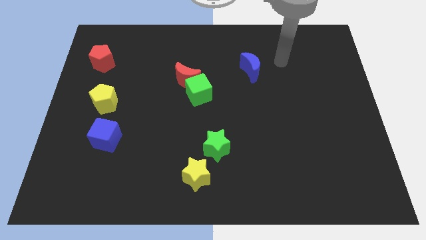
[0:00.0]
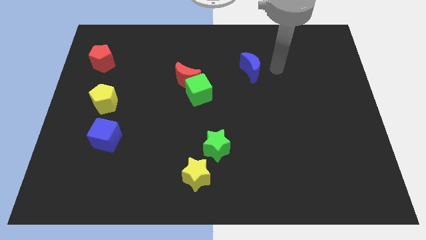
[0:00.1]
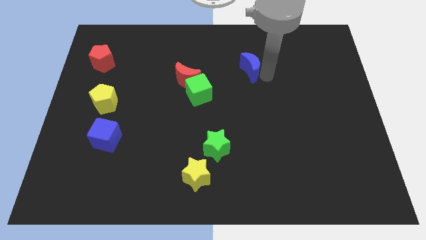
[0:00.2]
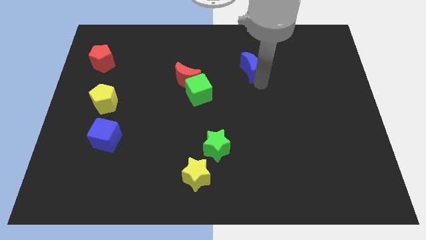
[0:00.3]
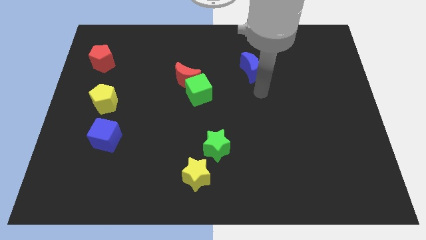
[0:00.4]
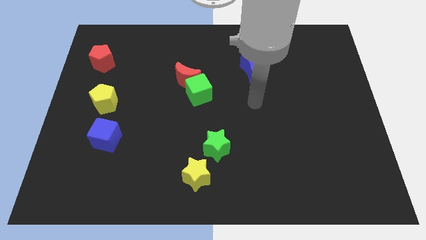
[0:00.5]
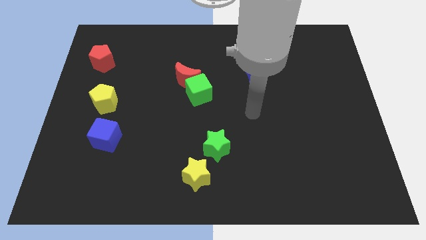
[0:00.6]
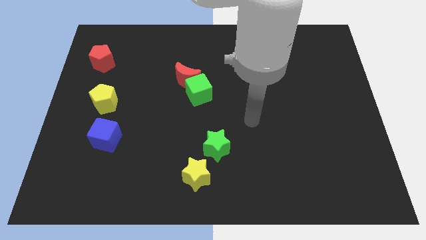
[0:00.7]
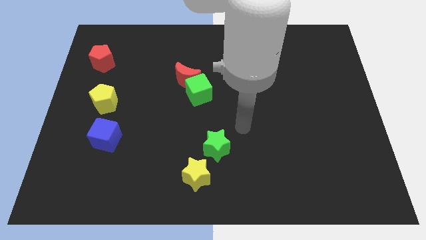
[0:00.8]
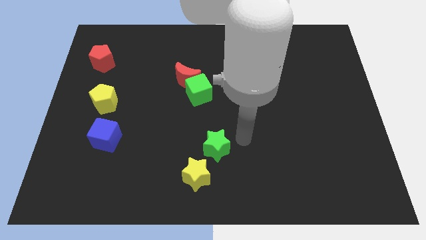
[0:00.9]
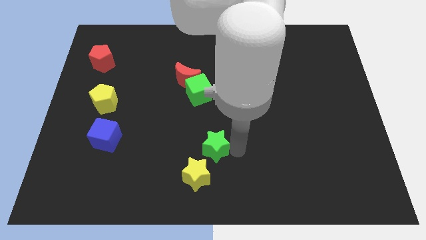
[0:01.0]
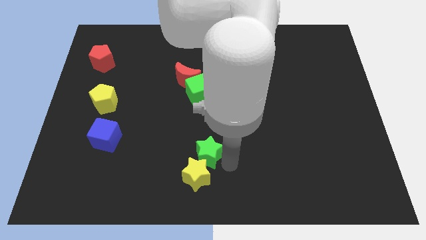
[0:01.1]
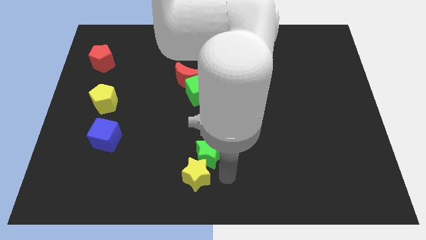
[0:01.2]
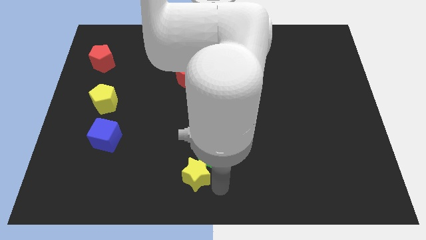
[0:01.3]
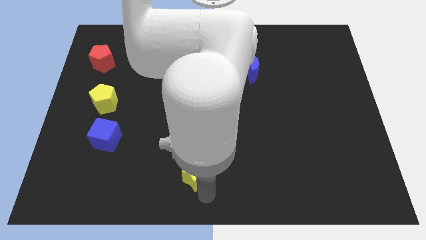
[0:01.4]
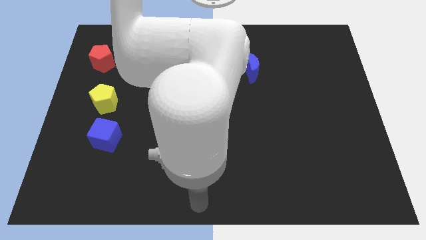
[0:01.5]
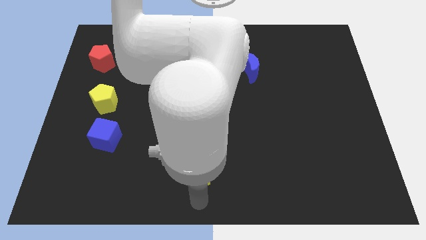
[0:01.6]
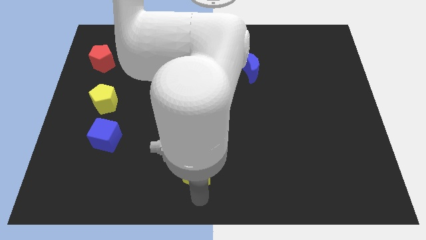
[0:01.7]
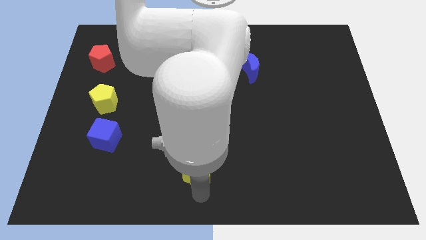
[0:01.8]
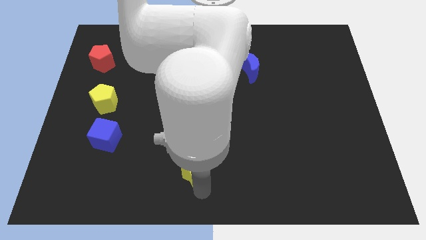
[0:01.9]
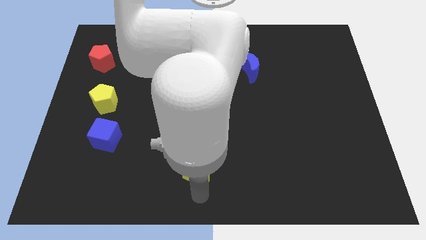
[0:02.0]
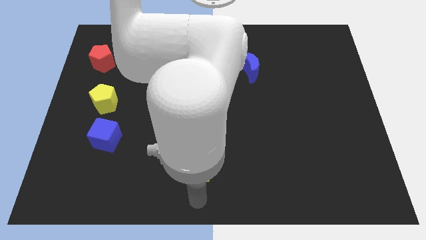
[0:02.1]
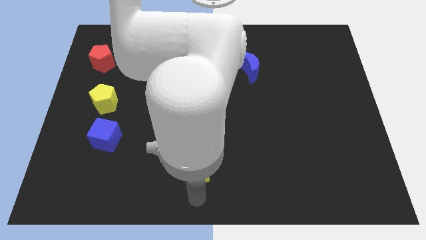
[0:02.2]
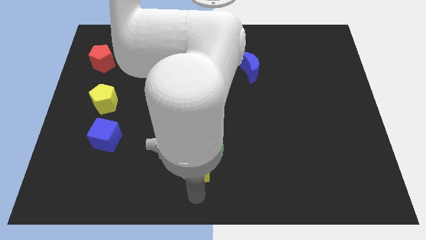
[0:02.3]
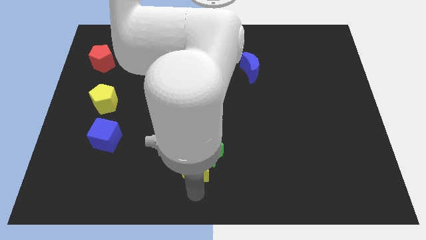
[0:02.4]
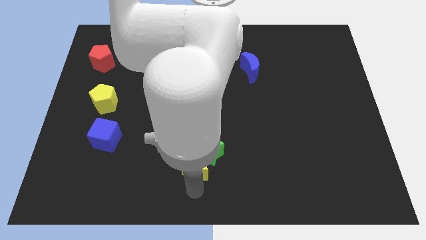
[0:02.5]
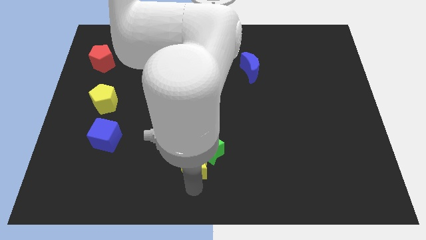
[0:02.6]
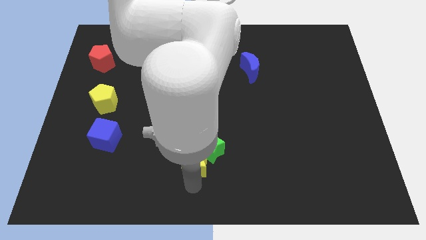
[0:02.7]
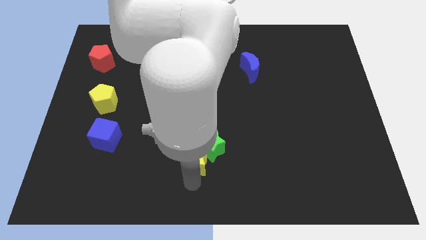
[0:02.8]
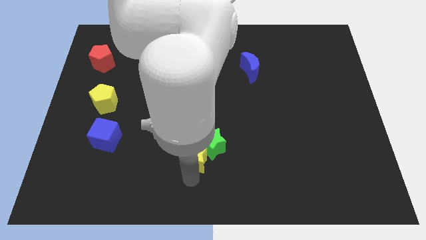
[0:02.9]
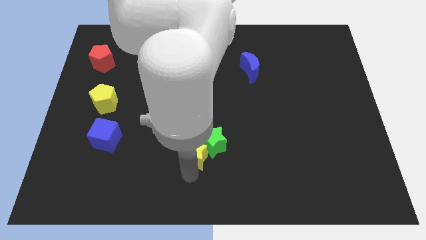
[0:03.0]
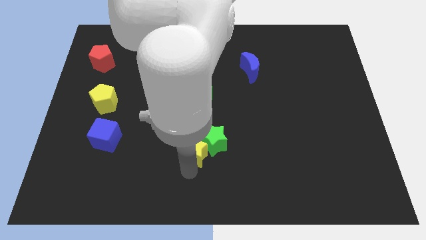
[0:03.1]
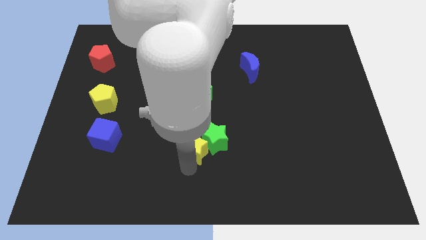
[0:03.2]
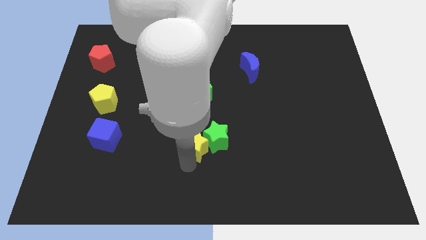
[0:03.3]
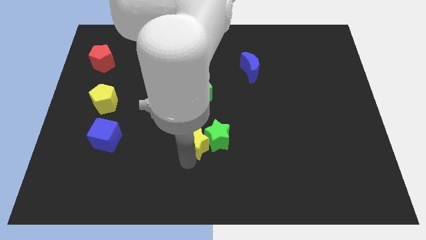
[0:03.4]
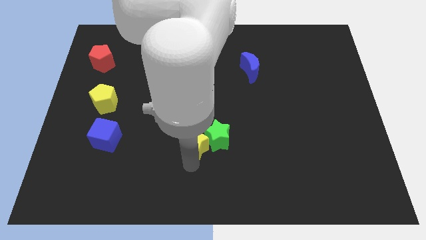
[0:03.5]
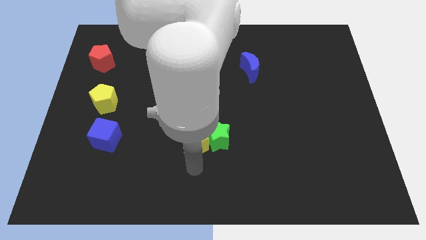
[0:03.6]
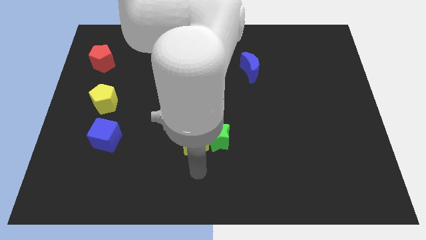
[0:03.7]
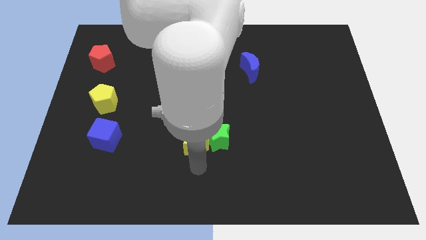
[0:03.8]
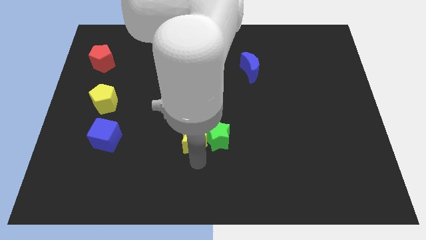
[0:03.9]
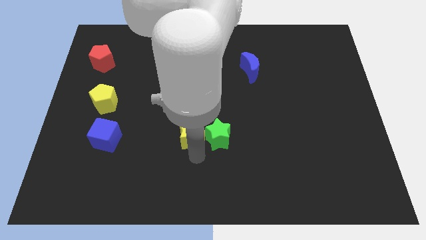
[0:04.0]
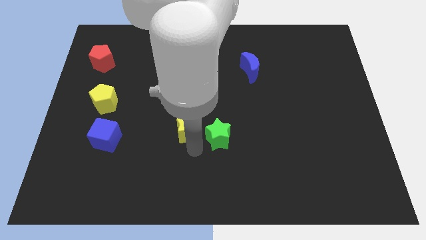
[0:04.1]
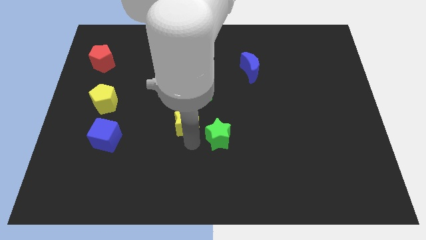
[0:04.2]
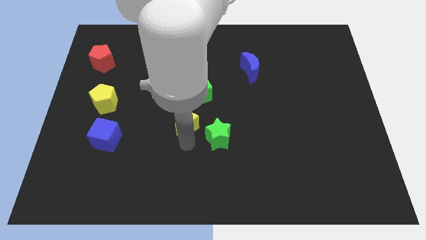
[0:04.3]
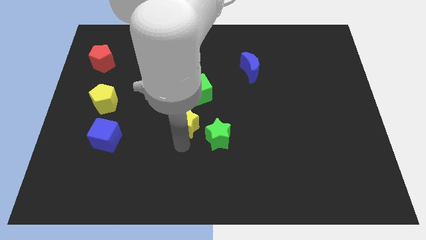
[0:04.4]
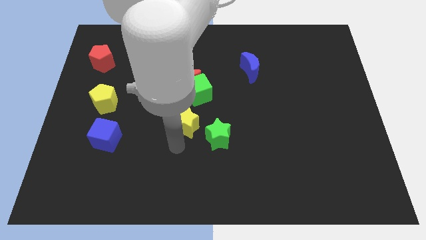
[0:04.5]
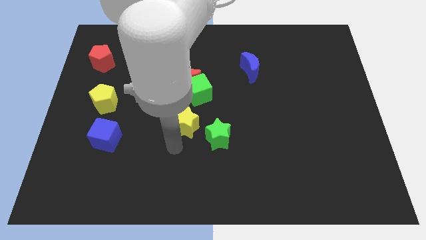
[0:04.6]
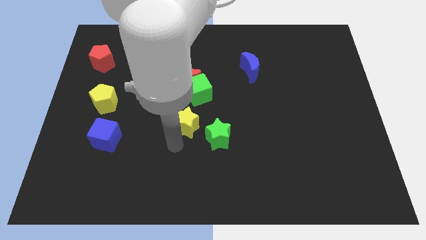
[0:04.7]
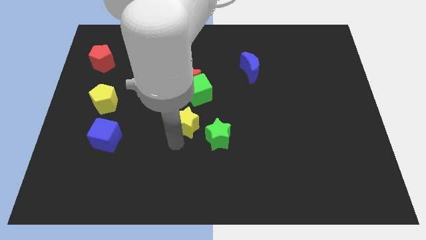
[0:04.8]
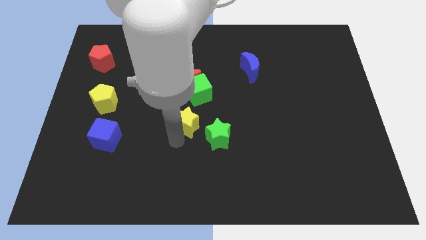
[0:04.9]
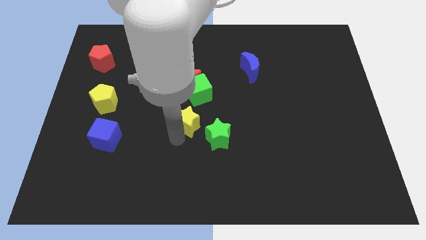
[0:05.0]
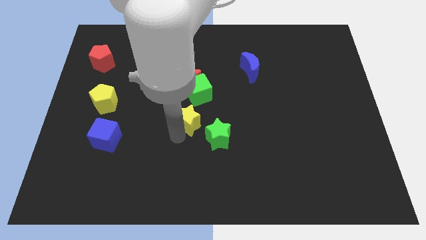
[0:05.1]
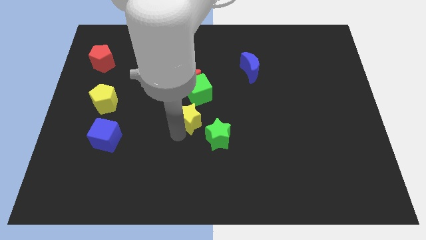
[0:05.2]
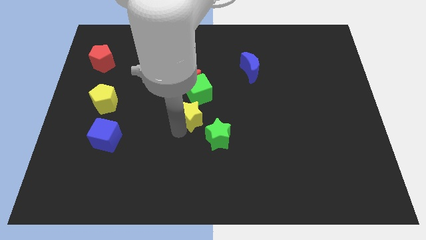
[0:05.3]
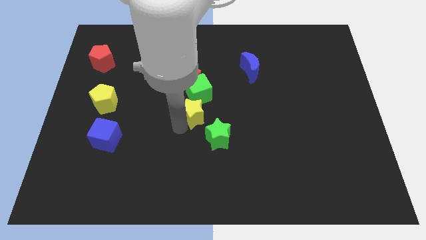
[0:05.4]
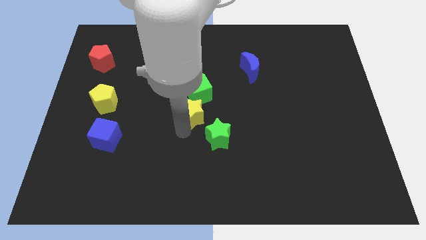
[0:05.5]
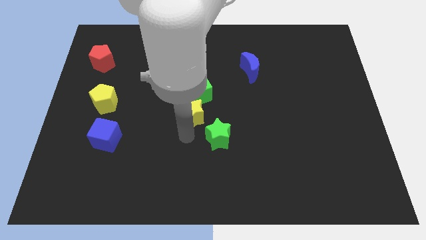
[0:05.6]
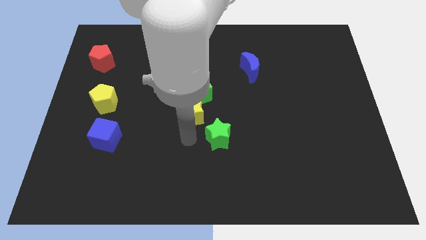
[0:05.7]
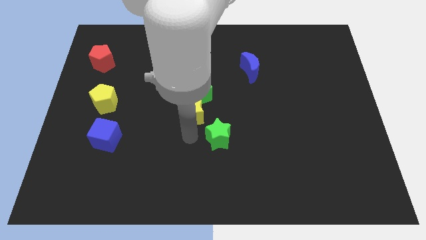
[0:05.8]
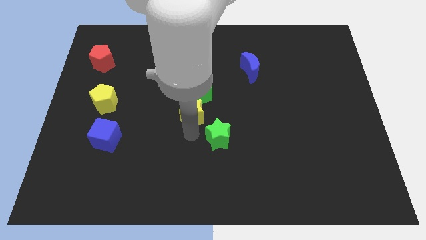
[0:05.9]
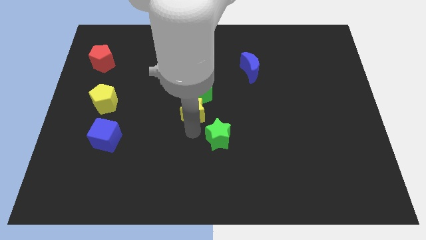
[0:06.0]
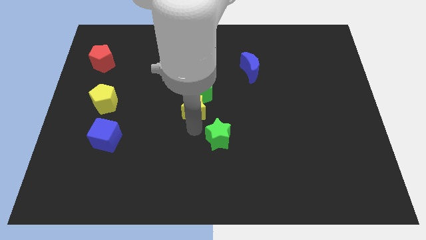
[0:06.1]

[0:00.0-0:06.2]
push the yellow star to the green cube

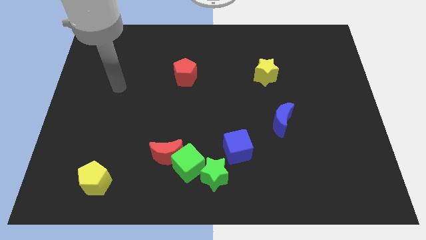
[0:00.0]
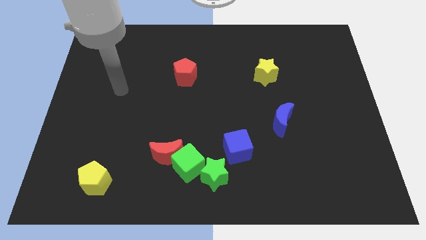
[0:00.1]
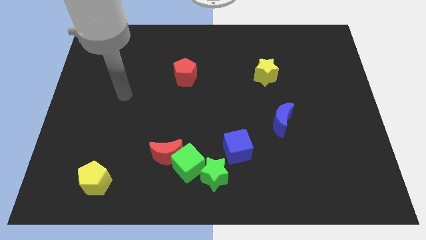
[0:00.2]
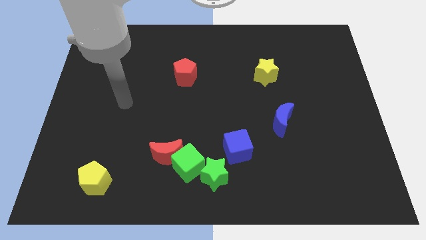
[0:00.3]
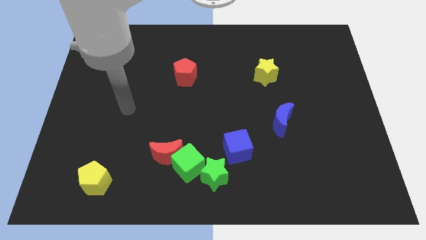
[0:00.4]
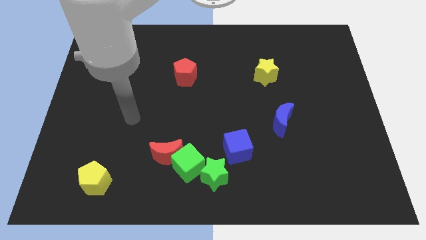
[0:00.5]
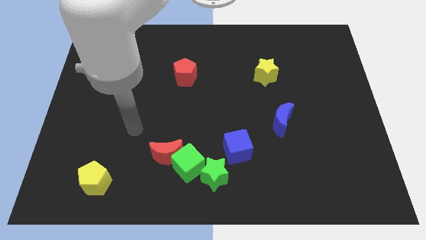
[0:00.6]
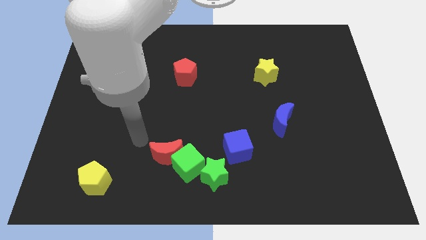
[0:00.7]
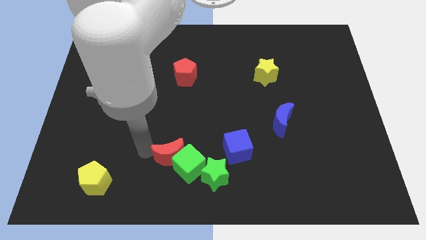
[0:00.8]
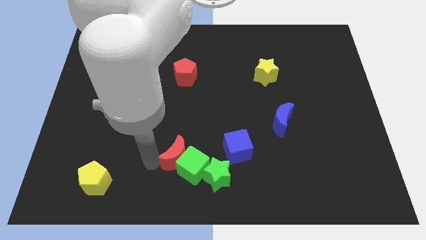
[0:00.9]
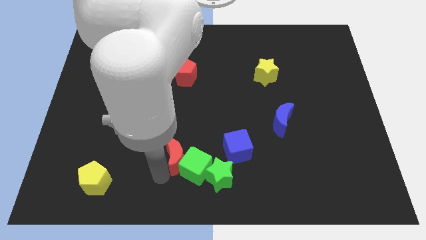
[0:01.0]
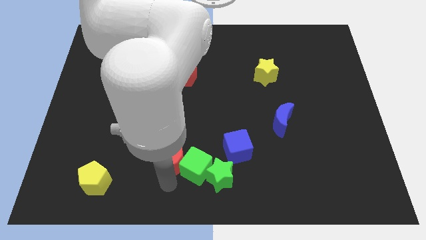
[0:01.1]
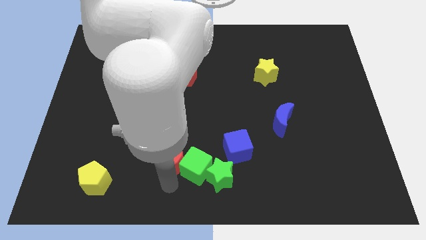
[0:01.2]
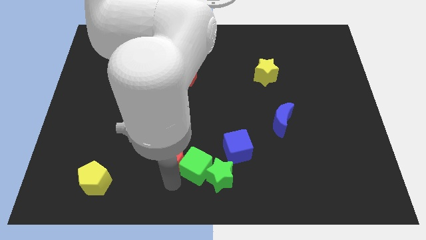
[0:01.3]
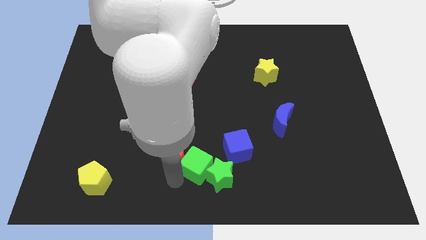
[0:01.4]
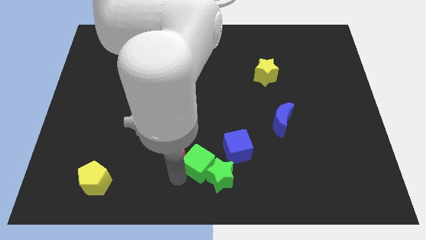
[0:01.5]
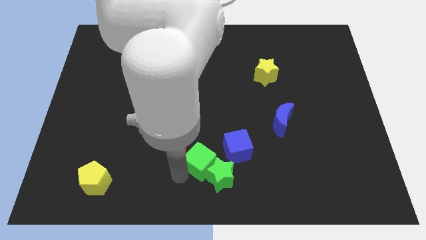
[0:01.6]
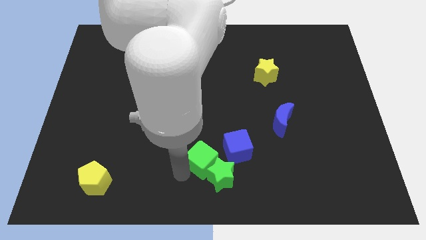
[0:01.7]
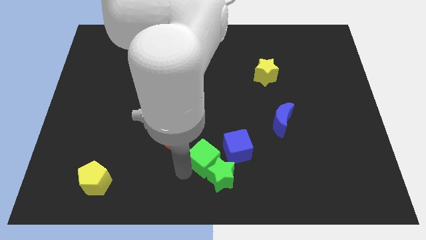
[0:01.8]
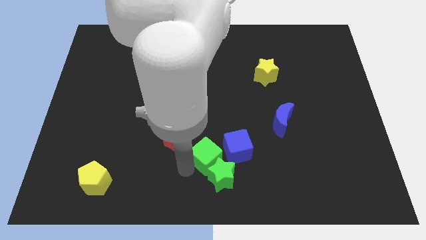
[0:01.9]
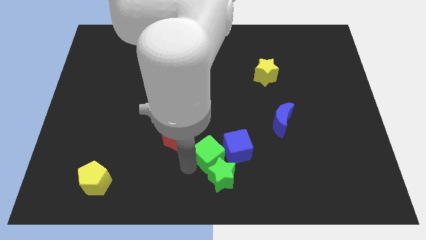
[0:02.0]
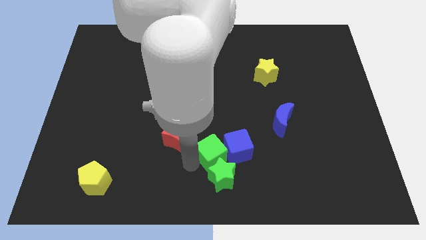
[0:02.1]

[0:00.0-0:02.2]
slide the green cube towards the blue cube
